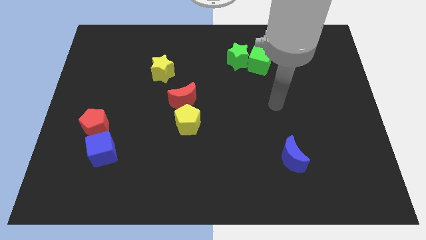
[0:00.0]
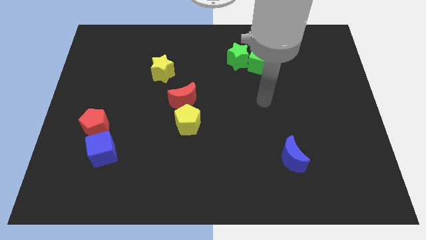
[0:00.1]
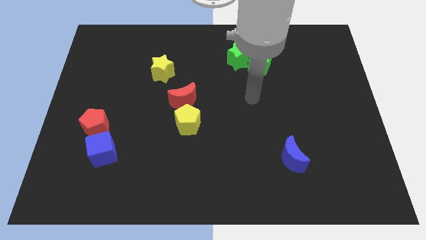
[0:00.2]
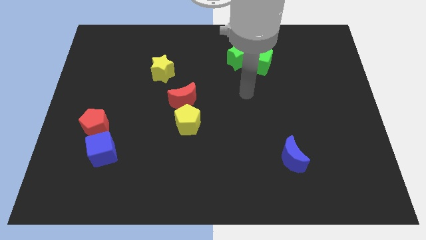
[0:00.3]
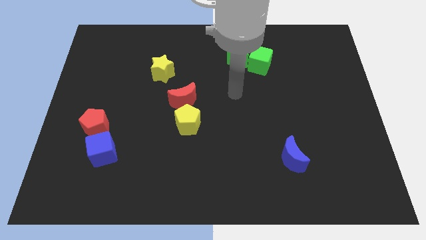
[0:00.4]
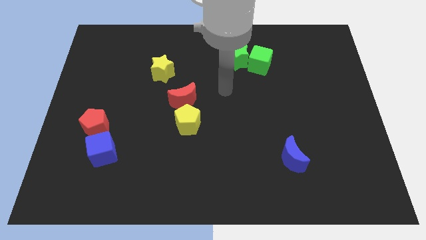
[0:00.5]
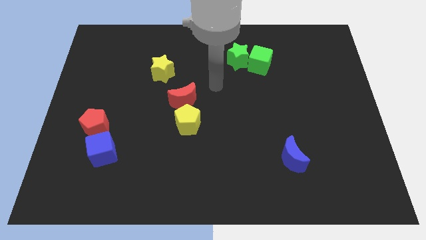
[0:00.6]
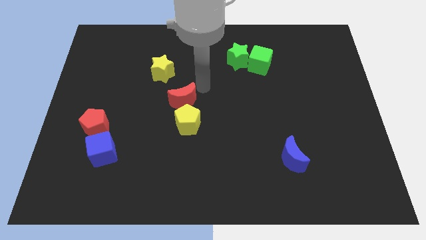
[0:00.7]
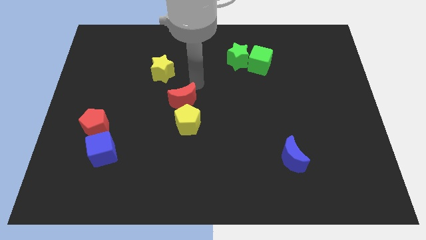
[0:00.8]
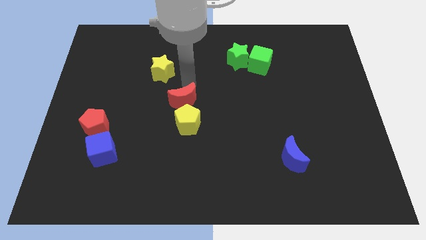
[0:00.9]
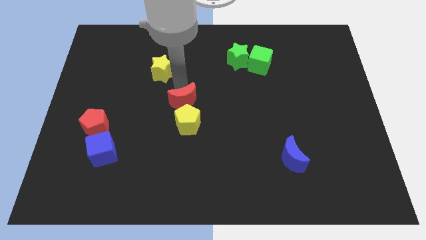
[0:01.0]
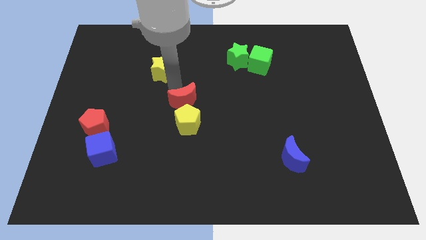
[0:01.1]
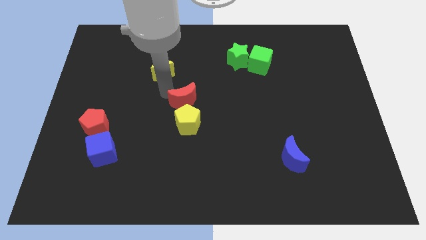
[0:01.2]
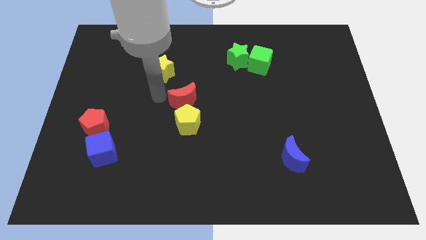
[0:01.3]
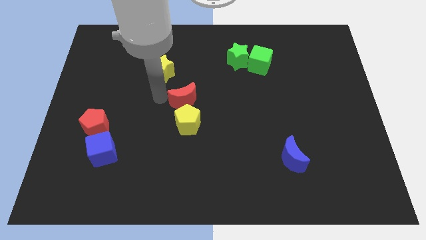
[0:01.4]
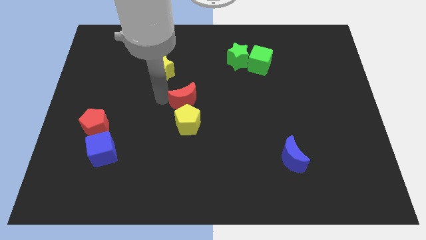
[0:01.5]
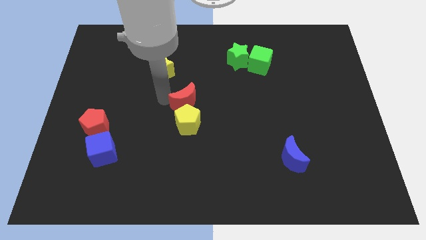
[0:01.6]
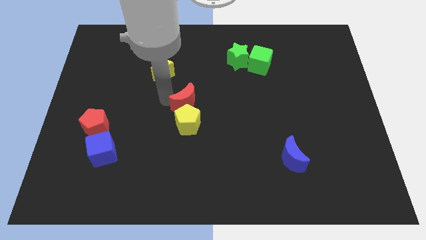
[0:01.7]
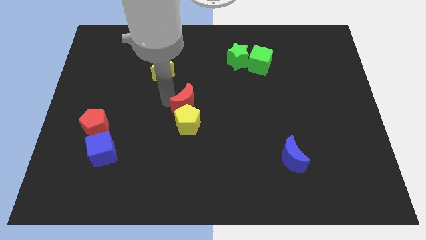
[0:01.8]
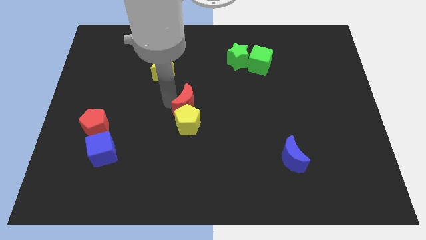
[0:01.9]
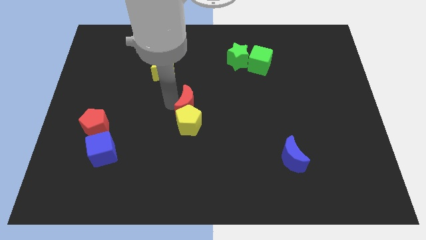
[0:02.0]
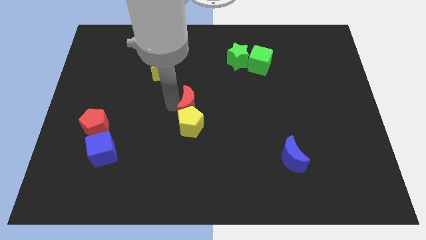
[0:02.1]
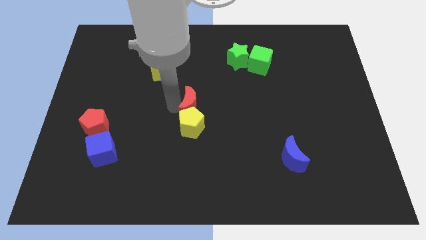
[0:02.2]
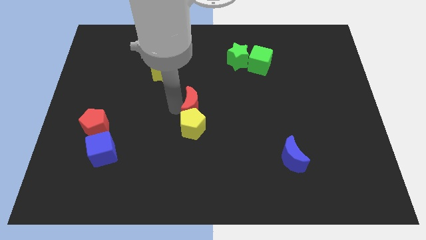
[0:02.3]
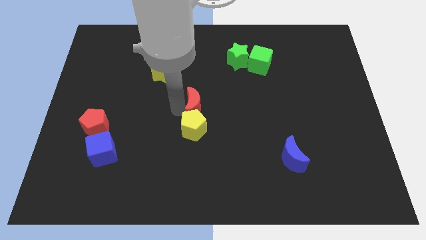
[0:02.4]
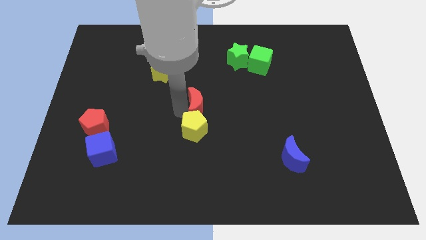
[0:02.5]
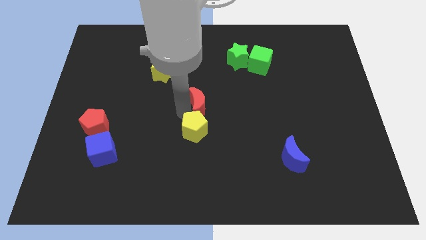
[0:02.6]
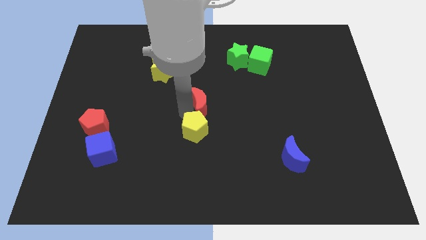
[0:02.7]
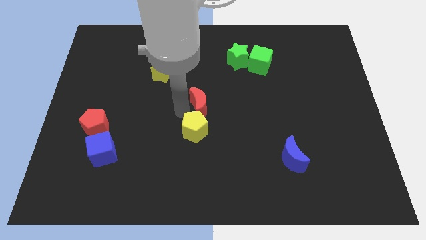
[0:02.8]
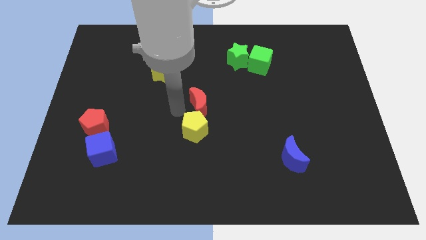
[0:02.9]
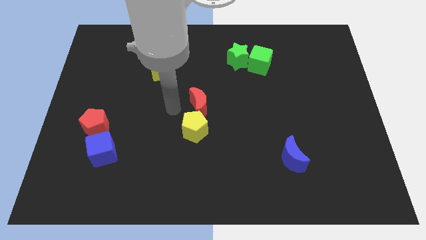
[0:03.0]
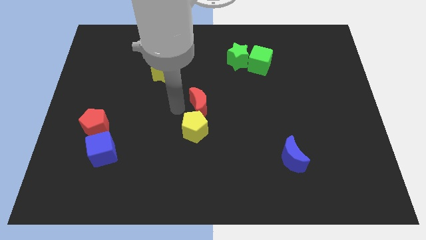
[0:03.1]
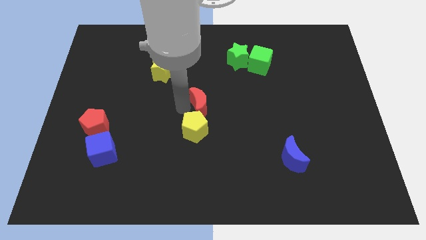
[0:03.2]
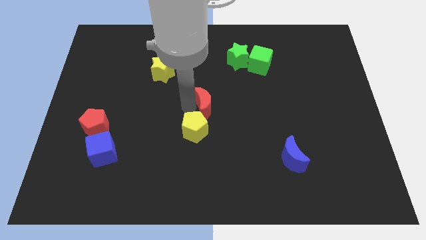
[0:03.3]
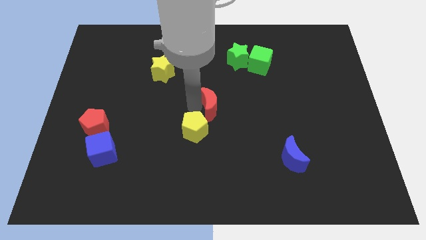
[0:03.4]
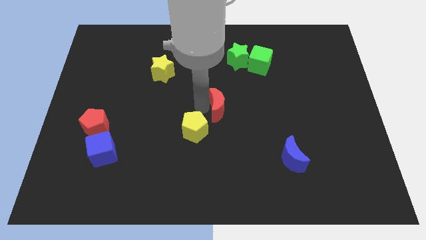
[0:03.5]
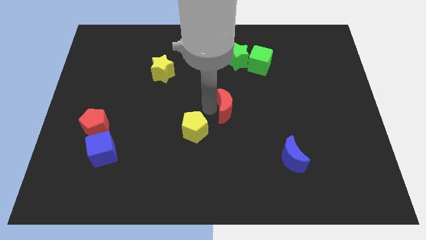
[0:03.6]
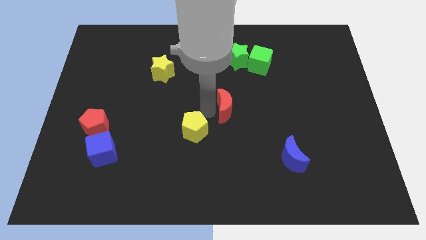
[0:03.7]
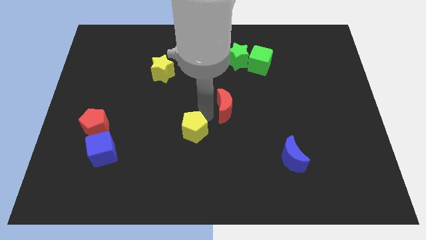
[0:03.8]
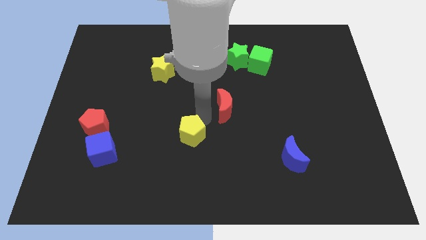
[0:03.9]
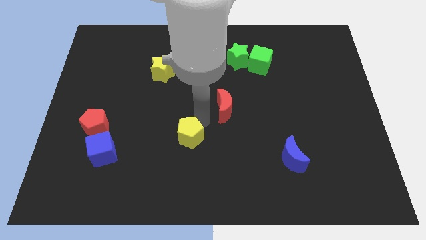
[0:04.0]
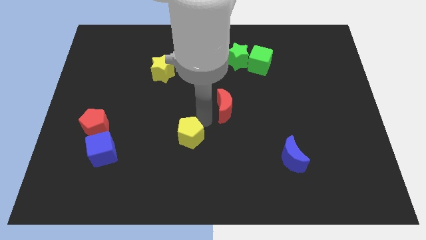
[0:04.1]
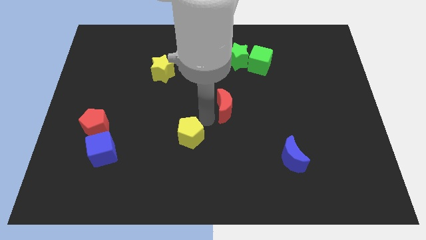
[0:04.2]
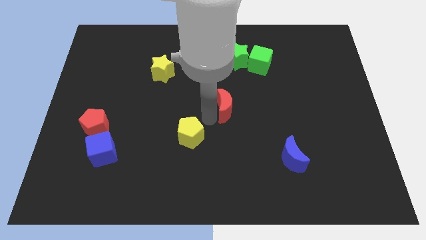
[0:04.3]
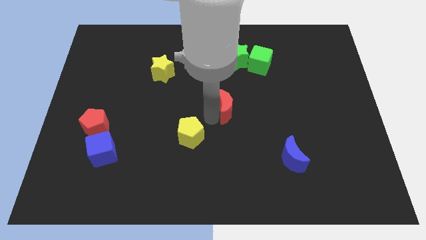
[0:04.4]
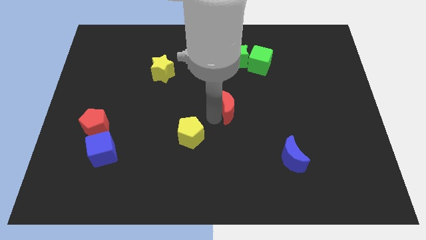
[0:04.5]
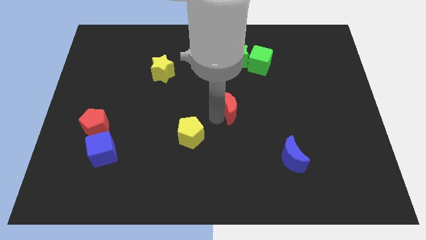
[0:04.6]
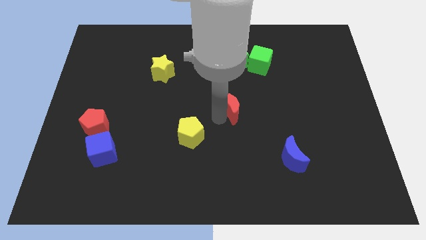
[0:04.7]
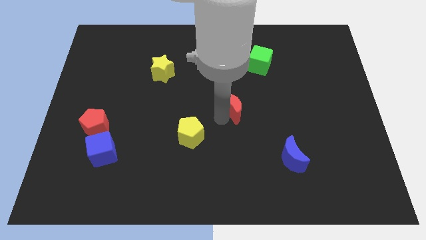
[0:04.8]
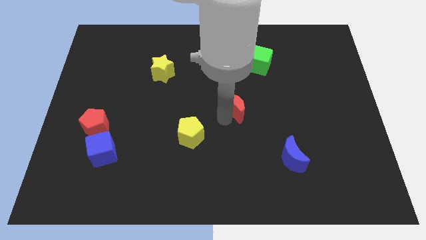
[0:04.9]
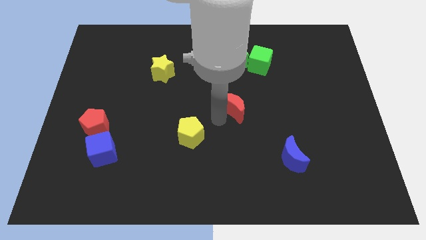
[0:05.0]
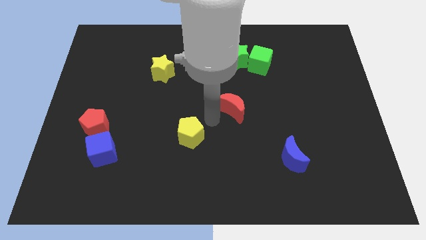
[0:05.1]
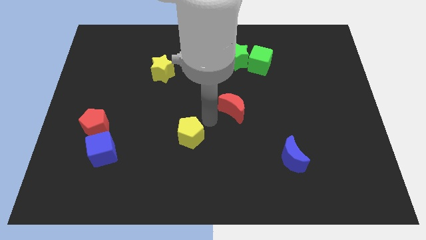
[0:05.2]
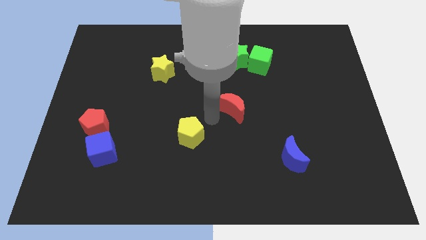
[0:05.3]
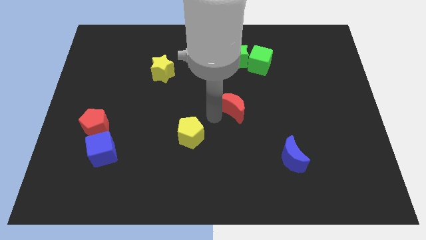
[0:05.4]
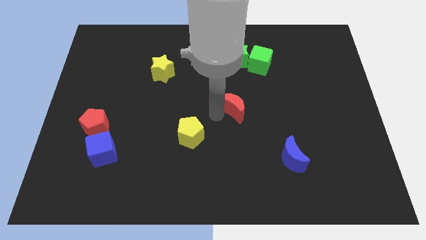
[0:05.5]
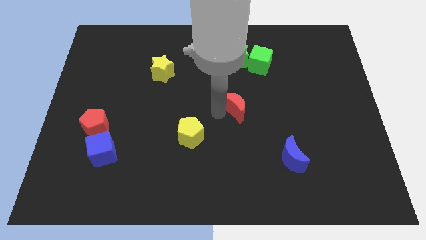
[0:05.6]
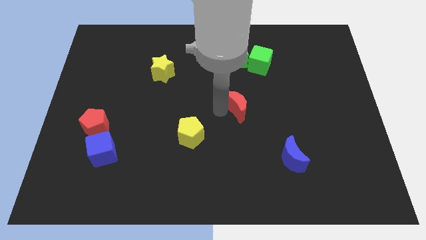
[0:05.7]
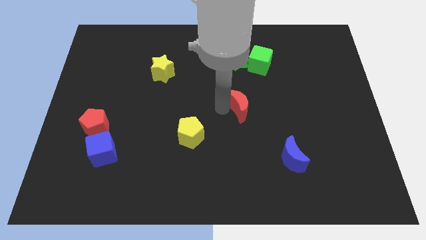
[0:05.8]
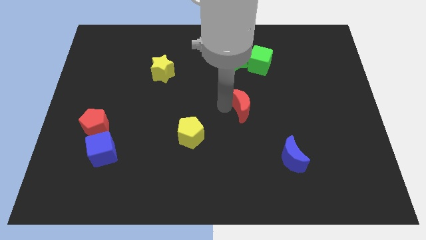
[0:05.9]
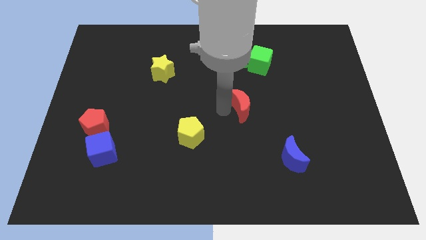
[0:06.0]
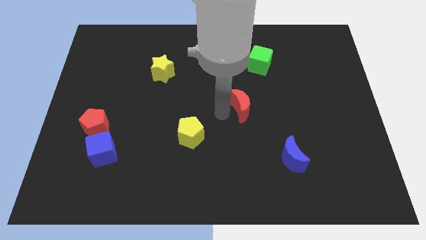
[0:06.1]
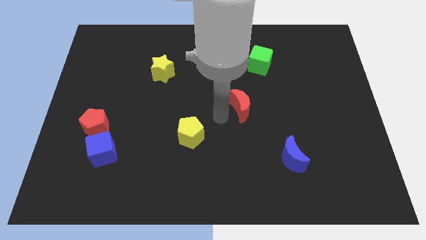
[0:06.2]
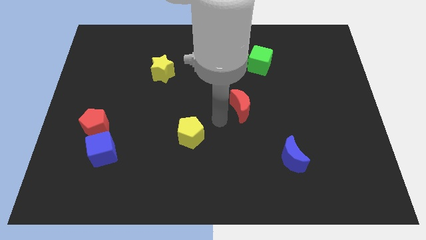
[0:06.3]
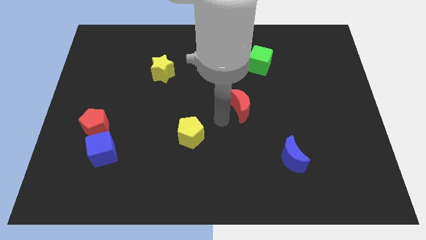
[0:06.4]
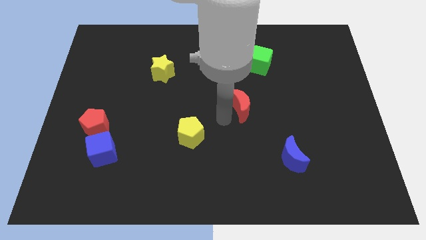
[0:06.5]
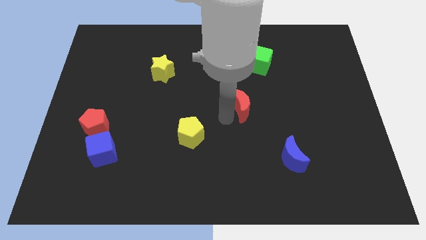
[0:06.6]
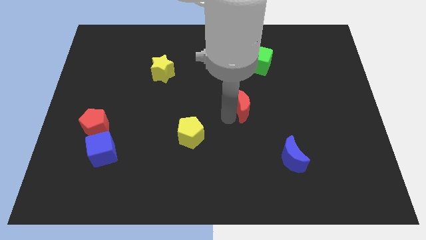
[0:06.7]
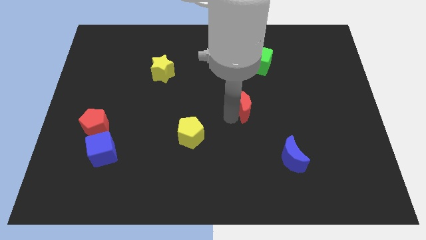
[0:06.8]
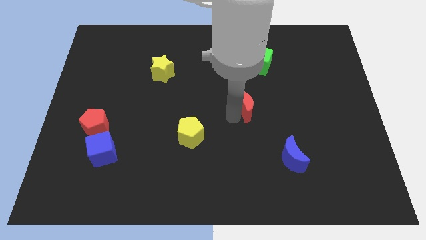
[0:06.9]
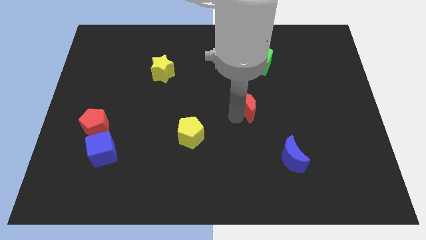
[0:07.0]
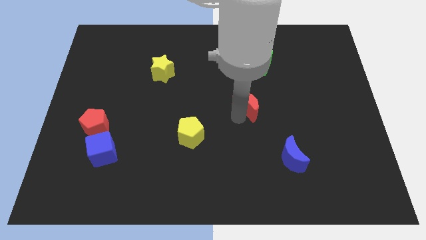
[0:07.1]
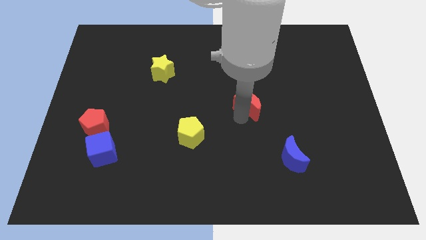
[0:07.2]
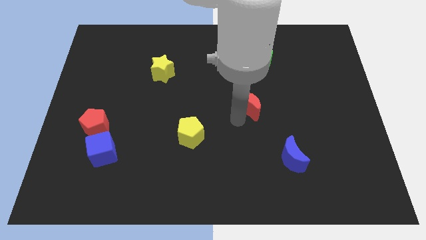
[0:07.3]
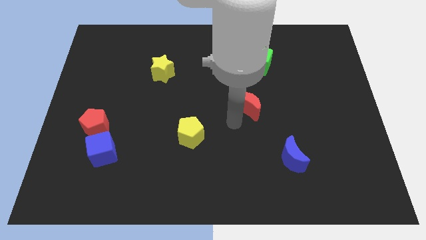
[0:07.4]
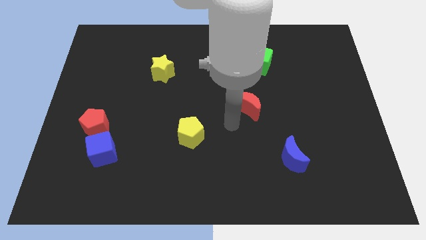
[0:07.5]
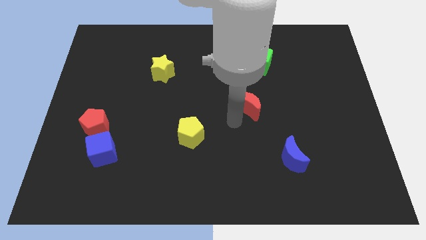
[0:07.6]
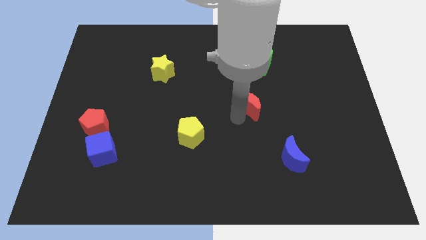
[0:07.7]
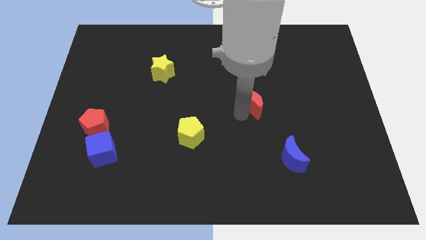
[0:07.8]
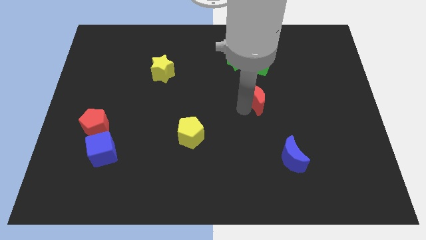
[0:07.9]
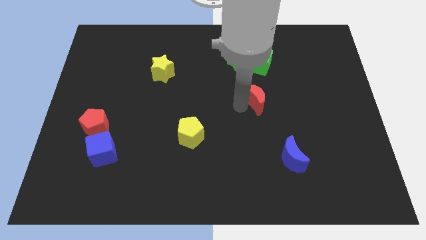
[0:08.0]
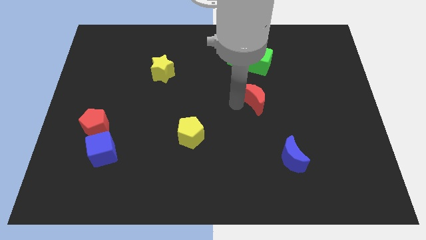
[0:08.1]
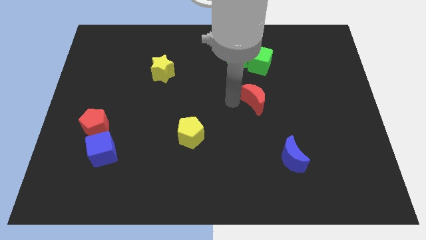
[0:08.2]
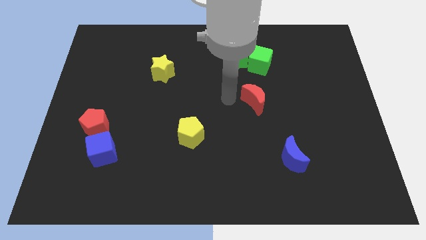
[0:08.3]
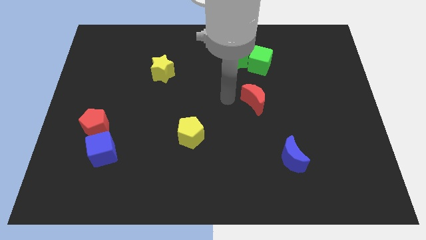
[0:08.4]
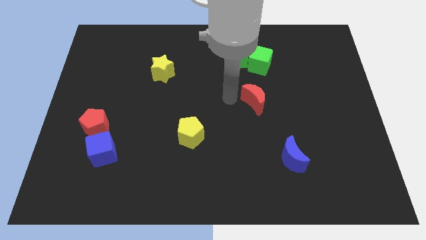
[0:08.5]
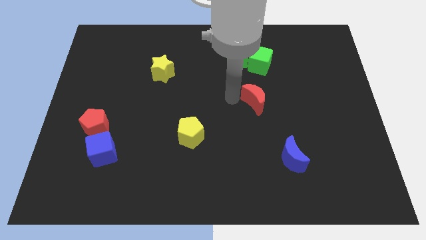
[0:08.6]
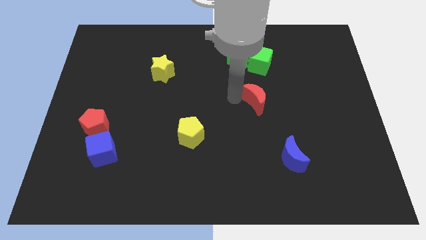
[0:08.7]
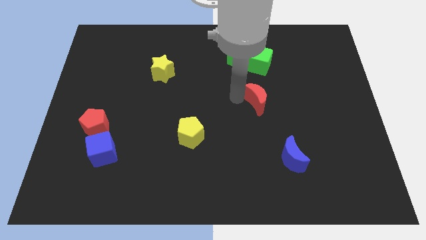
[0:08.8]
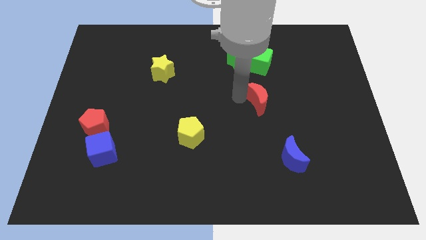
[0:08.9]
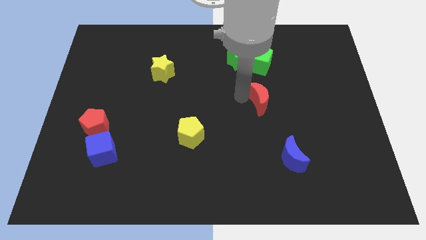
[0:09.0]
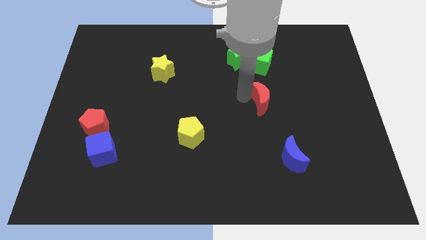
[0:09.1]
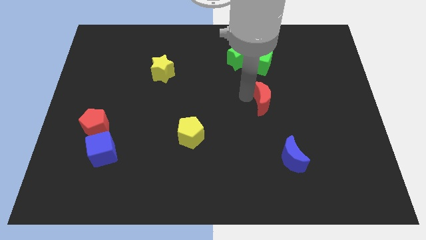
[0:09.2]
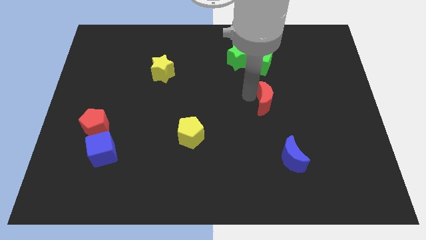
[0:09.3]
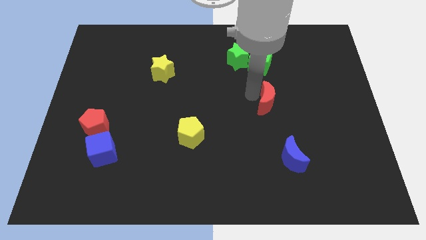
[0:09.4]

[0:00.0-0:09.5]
slide the red moon to the right
